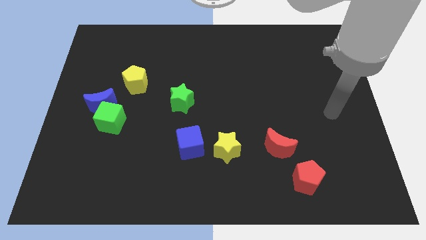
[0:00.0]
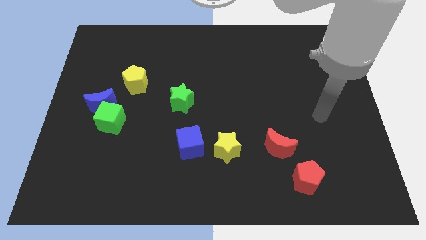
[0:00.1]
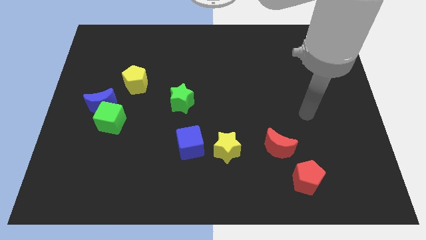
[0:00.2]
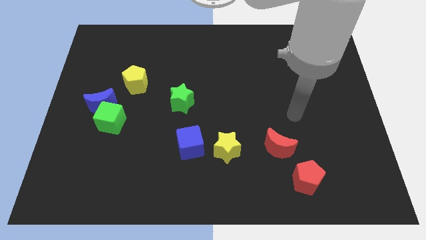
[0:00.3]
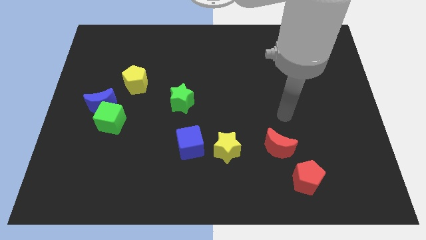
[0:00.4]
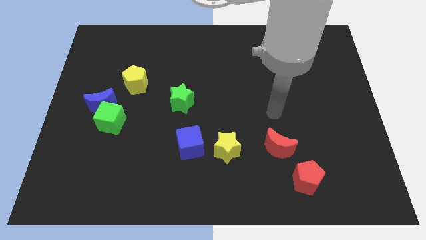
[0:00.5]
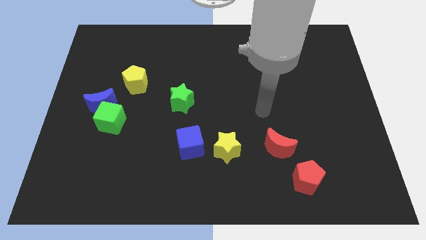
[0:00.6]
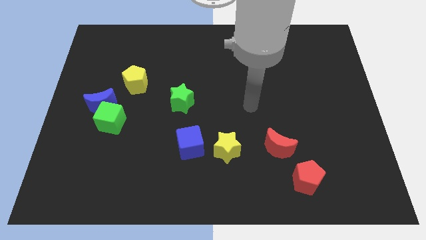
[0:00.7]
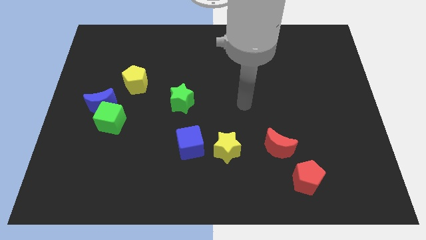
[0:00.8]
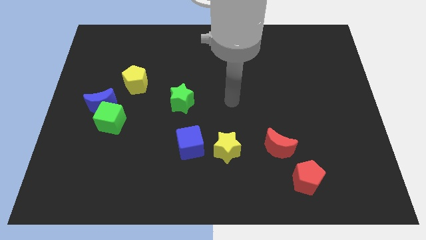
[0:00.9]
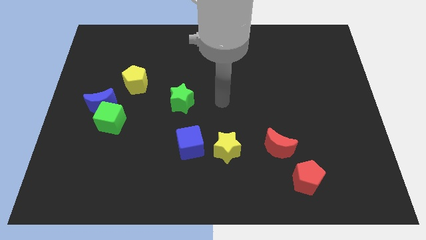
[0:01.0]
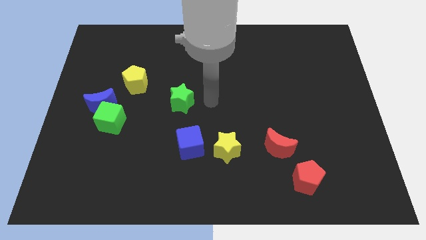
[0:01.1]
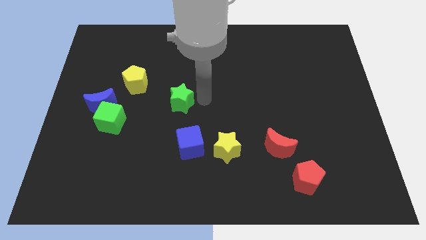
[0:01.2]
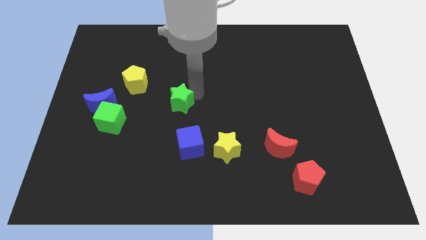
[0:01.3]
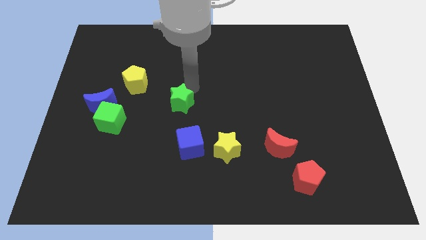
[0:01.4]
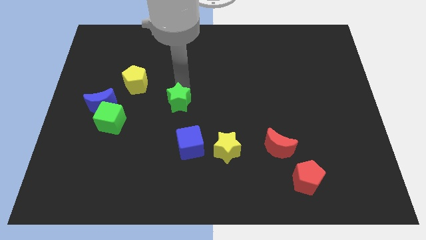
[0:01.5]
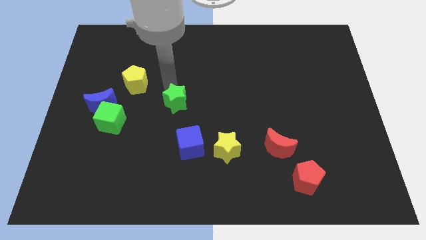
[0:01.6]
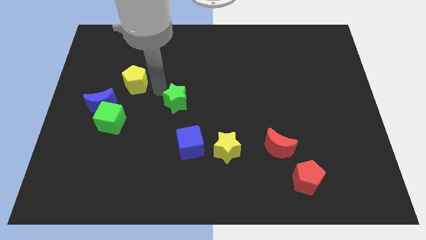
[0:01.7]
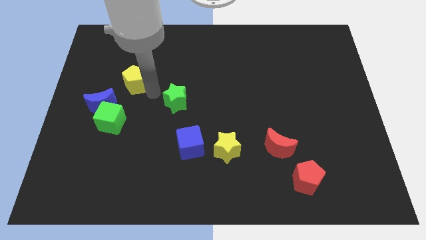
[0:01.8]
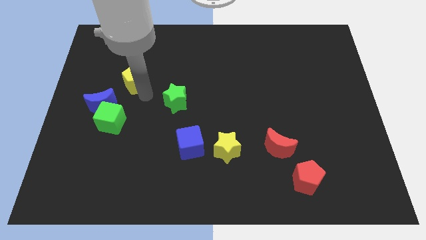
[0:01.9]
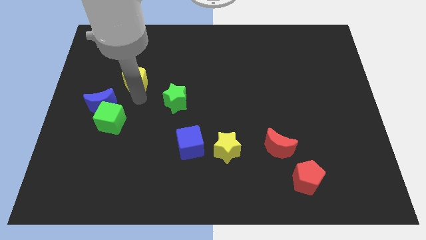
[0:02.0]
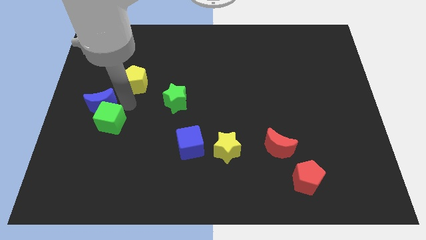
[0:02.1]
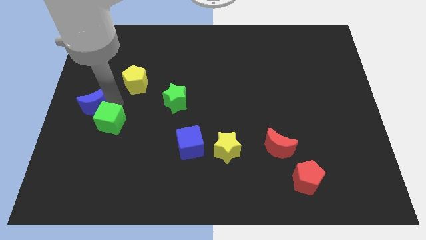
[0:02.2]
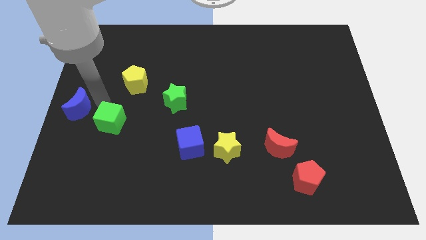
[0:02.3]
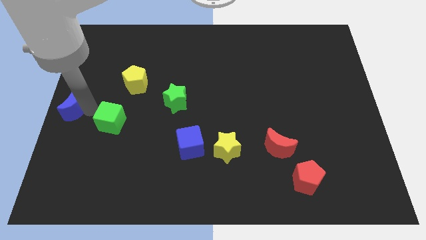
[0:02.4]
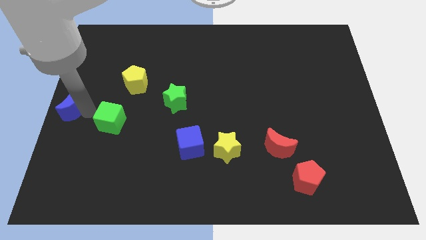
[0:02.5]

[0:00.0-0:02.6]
separate the green cube from the blue moon

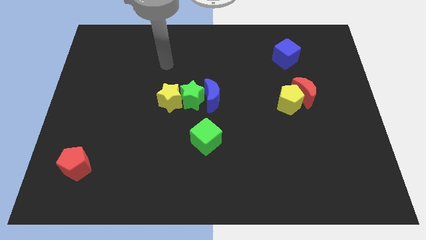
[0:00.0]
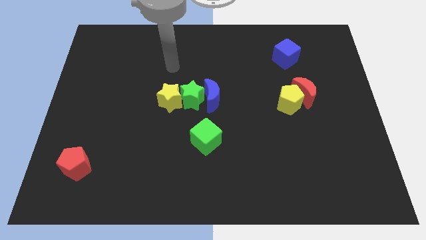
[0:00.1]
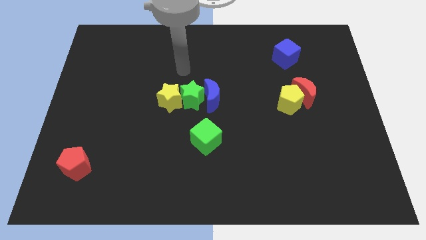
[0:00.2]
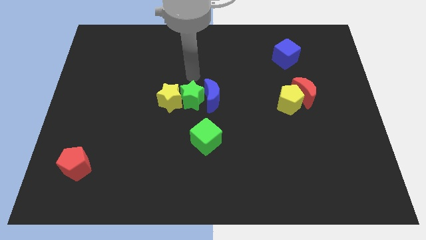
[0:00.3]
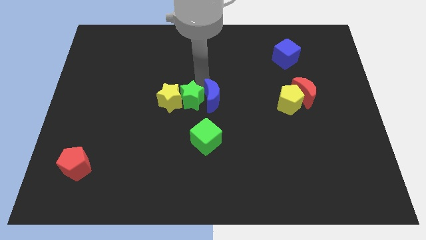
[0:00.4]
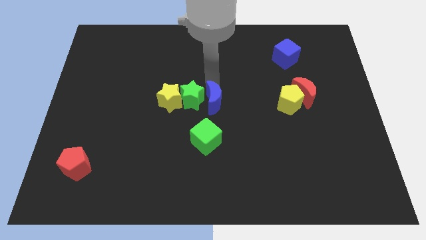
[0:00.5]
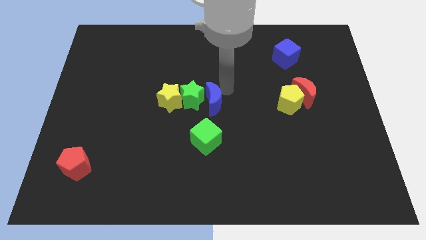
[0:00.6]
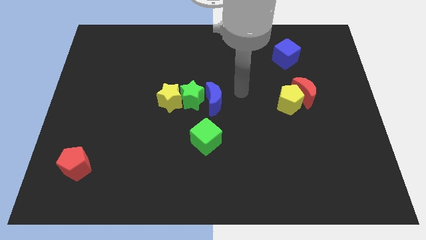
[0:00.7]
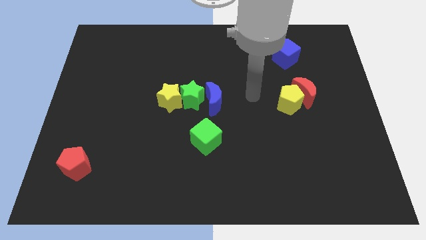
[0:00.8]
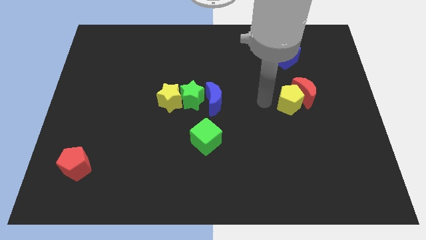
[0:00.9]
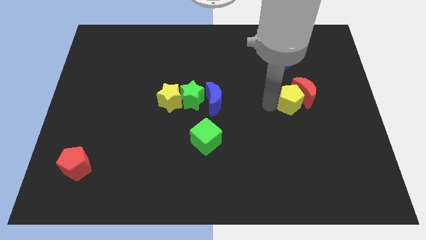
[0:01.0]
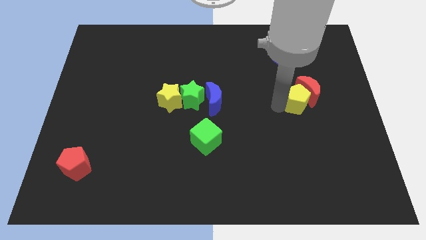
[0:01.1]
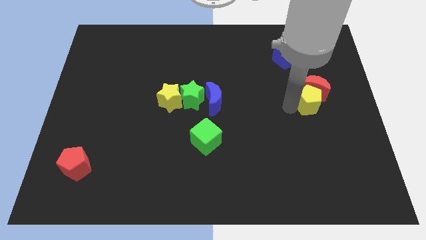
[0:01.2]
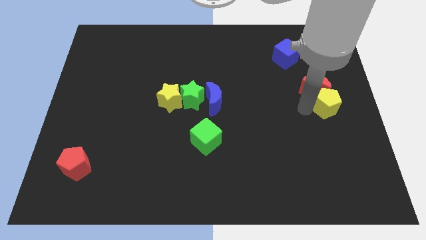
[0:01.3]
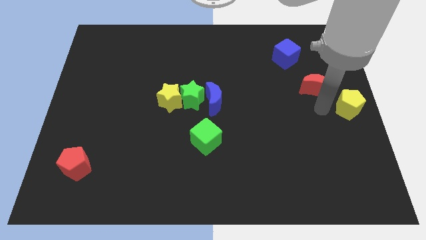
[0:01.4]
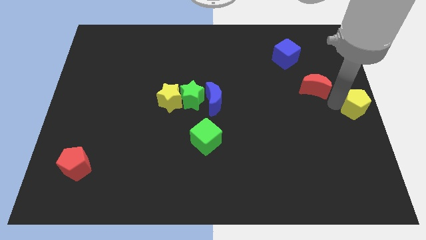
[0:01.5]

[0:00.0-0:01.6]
move the red moon away from the yellow pentagon

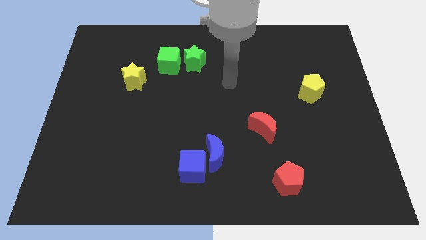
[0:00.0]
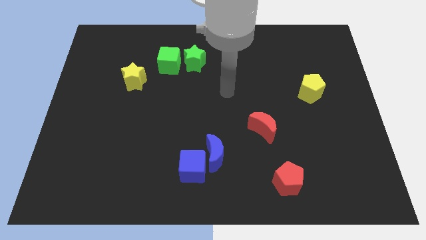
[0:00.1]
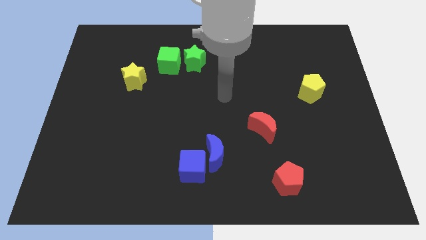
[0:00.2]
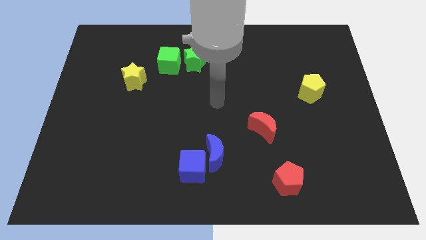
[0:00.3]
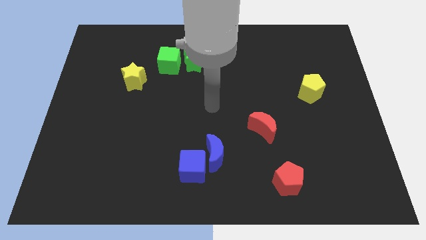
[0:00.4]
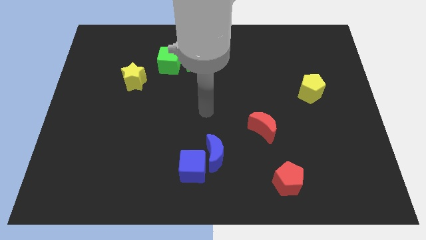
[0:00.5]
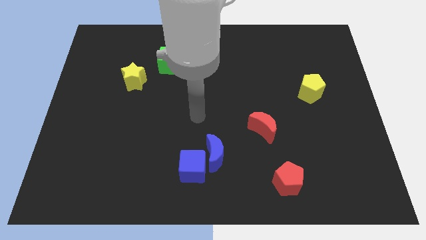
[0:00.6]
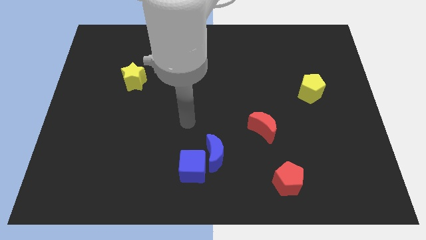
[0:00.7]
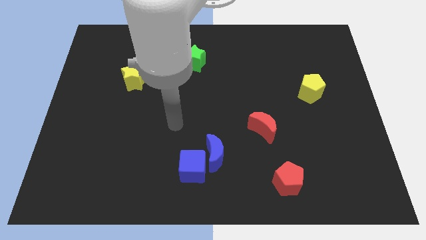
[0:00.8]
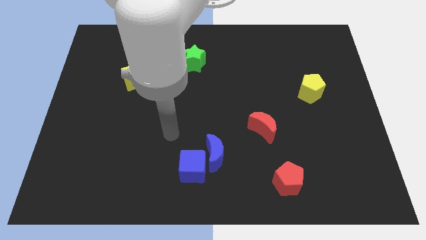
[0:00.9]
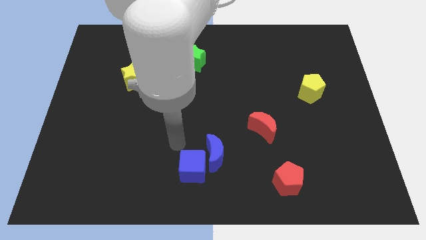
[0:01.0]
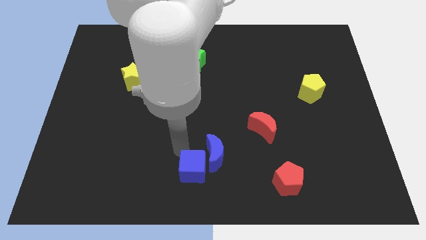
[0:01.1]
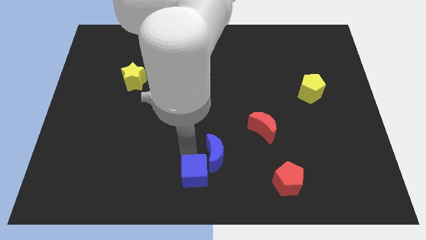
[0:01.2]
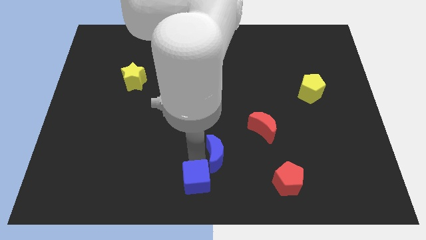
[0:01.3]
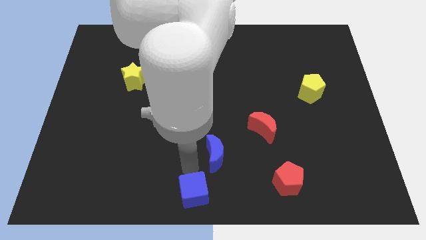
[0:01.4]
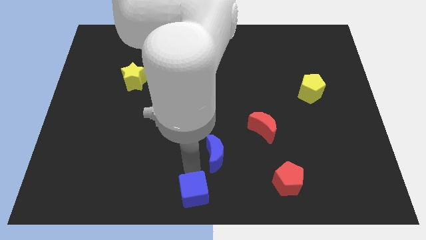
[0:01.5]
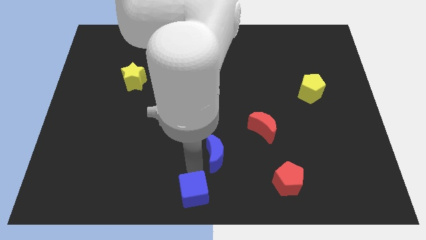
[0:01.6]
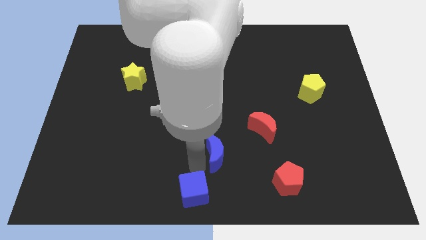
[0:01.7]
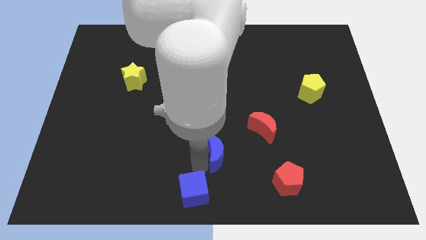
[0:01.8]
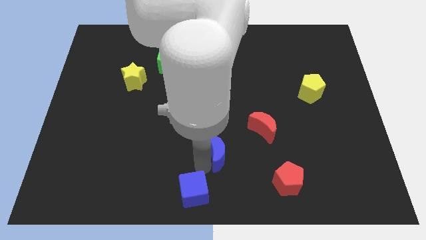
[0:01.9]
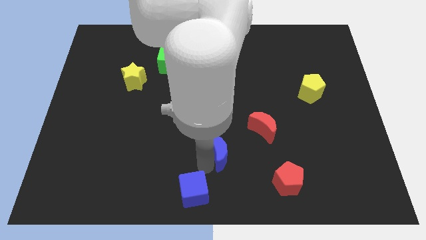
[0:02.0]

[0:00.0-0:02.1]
move the blue moon away from the blue cube

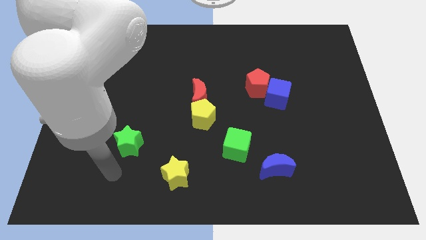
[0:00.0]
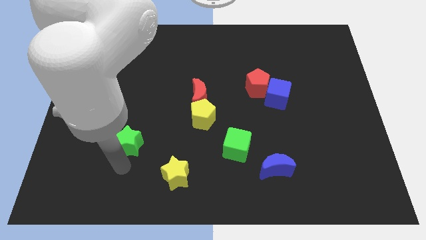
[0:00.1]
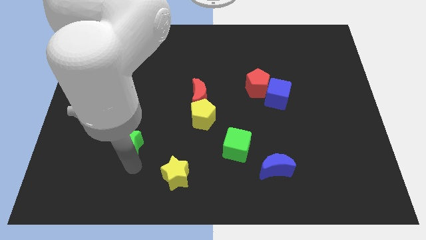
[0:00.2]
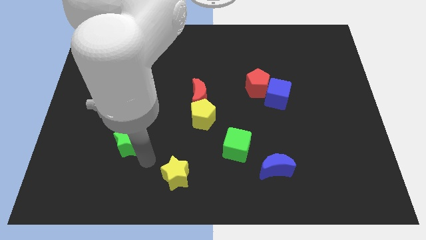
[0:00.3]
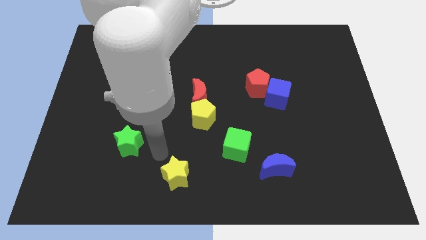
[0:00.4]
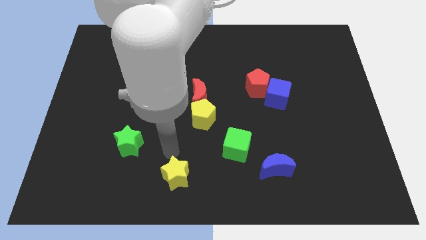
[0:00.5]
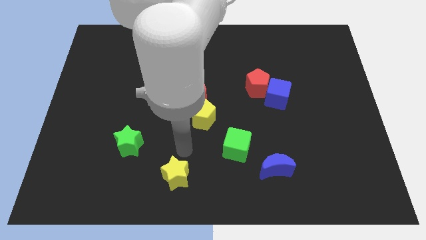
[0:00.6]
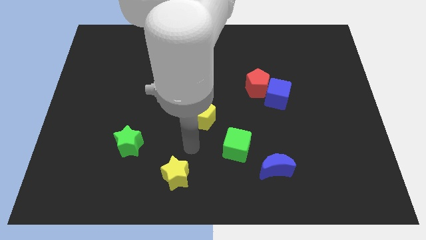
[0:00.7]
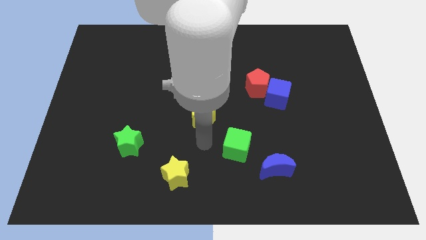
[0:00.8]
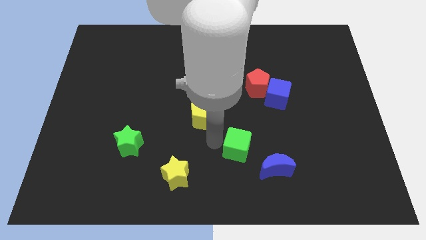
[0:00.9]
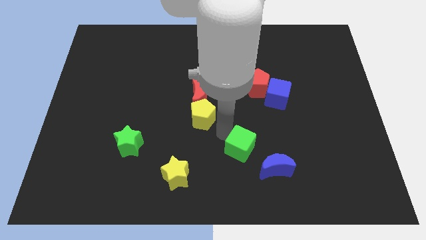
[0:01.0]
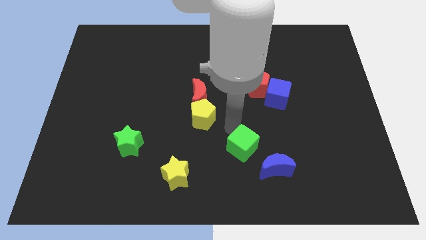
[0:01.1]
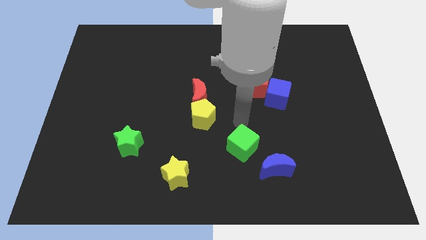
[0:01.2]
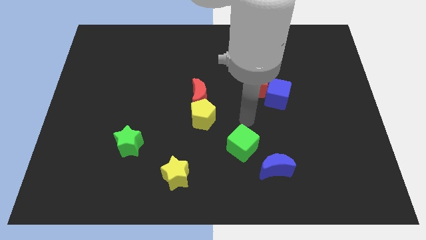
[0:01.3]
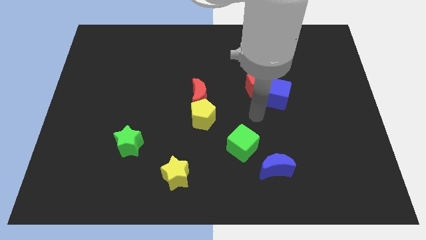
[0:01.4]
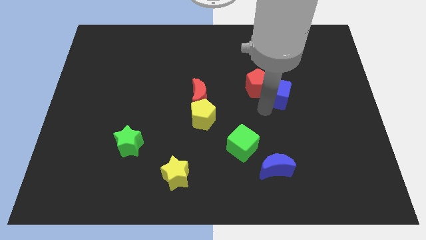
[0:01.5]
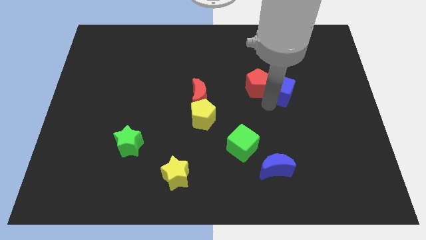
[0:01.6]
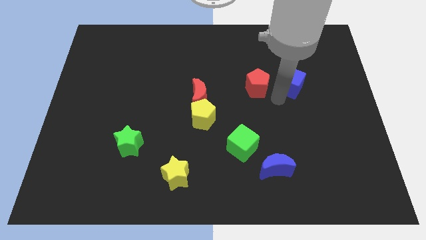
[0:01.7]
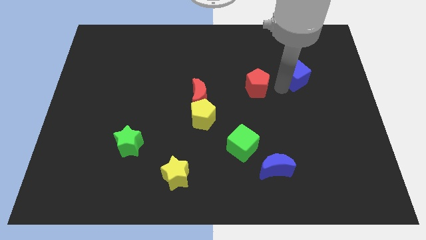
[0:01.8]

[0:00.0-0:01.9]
move the red pentagon away from the blue cube

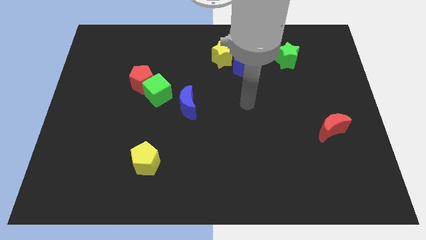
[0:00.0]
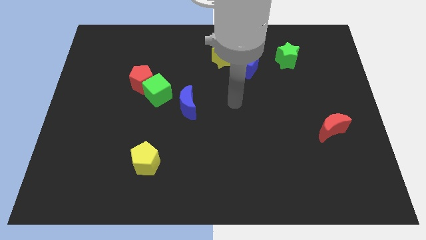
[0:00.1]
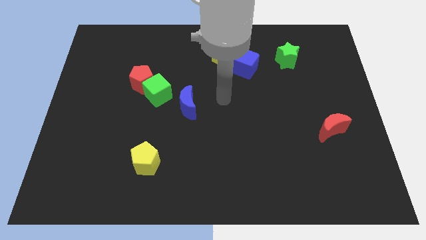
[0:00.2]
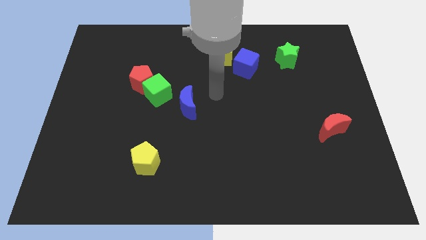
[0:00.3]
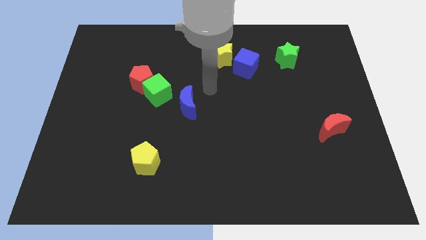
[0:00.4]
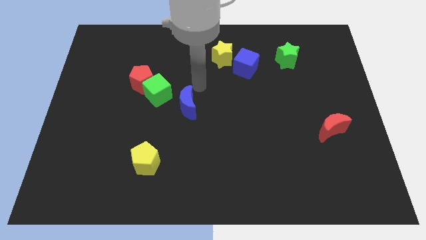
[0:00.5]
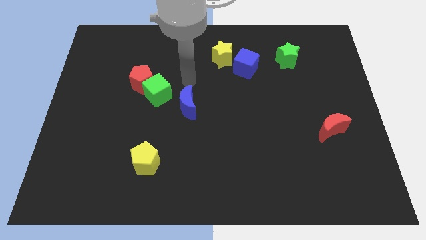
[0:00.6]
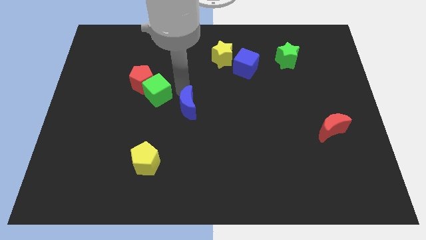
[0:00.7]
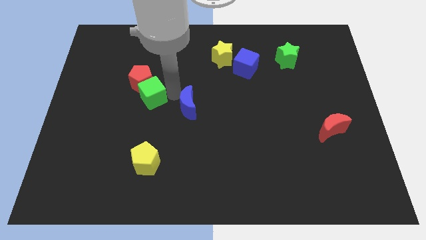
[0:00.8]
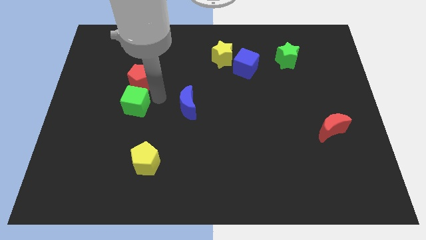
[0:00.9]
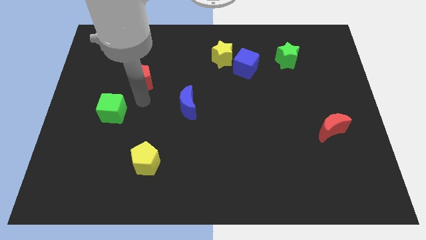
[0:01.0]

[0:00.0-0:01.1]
pull the red pentagon apart from the green cube
